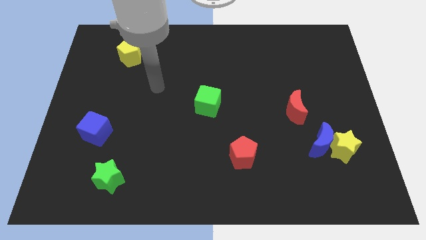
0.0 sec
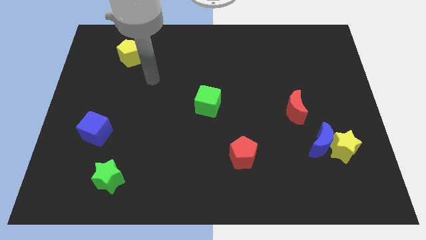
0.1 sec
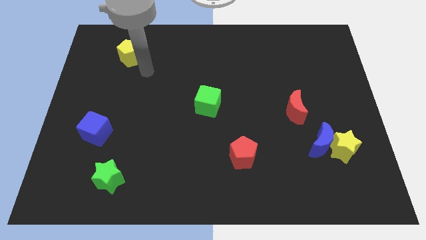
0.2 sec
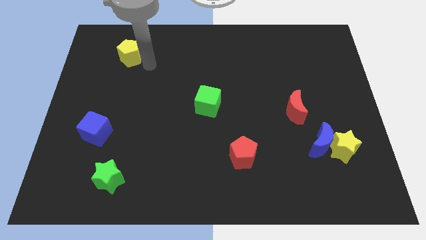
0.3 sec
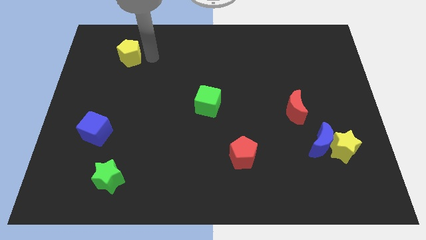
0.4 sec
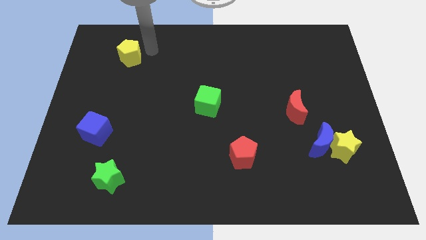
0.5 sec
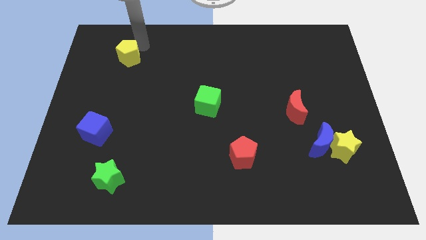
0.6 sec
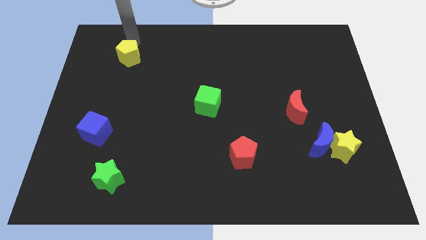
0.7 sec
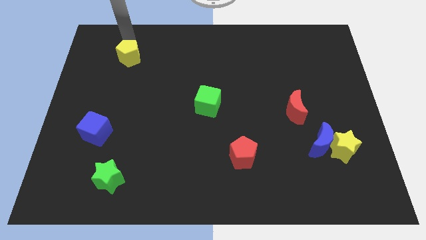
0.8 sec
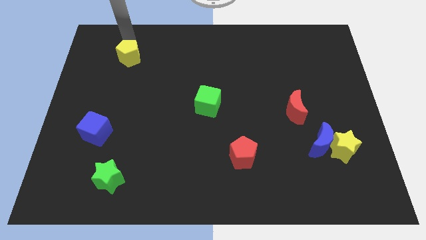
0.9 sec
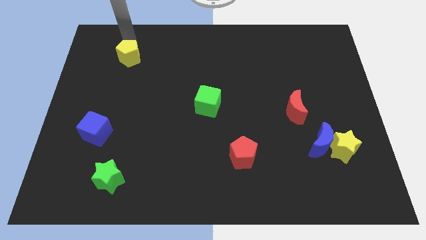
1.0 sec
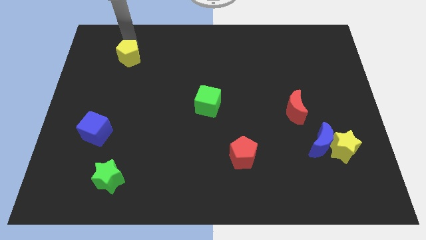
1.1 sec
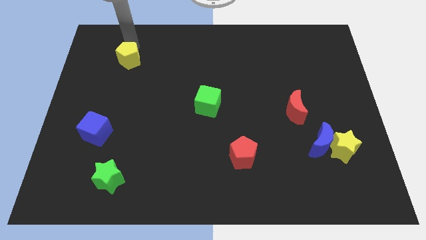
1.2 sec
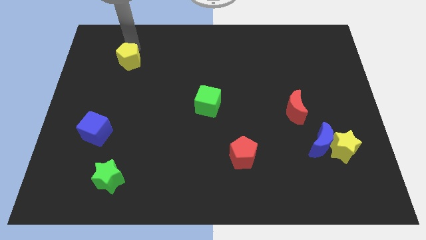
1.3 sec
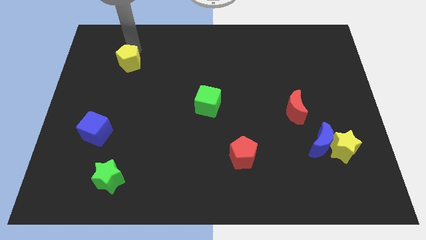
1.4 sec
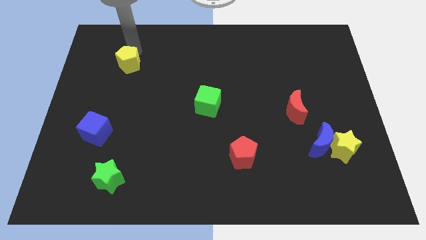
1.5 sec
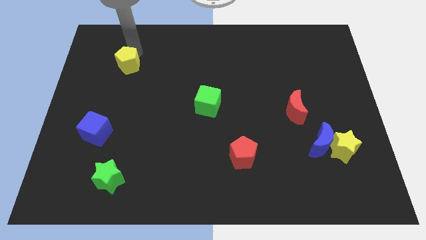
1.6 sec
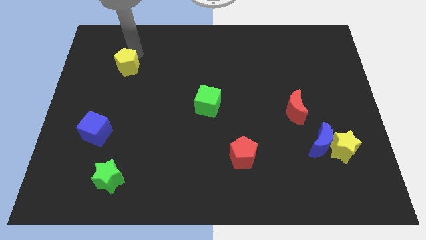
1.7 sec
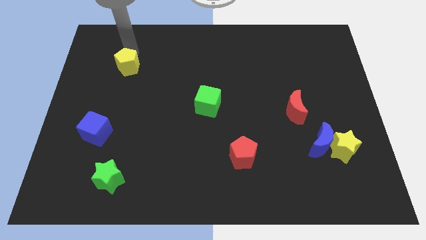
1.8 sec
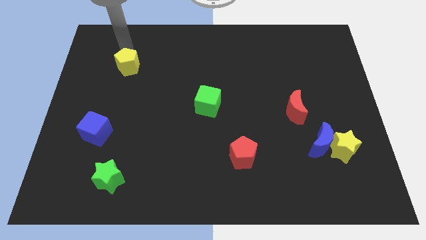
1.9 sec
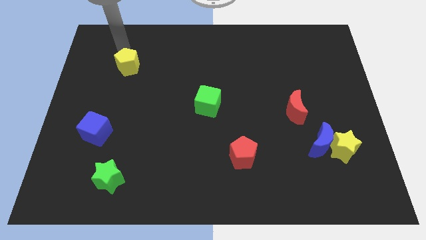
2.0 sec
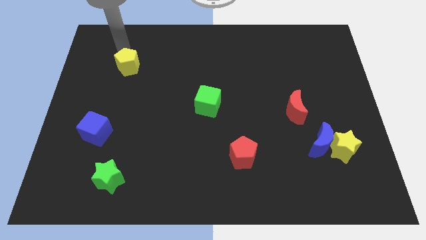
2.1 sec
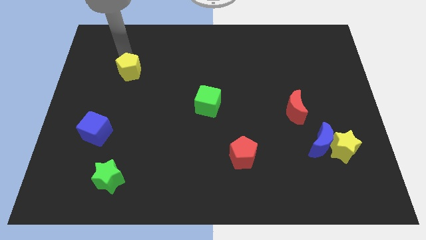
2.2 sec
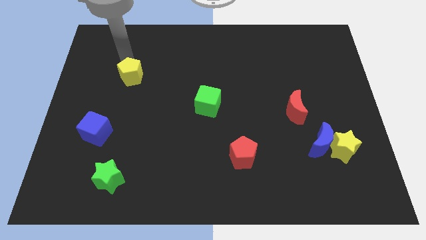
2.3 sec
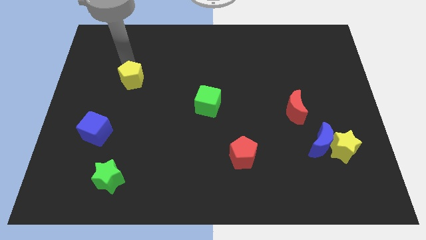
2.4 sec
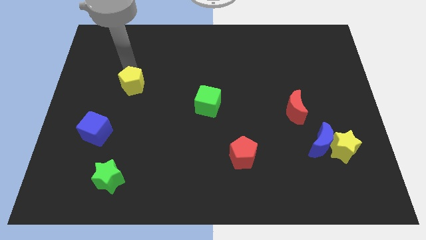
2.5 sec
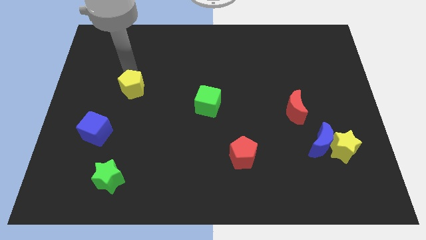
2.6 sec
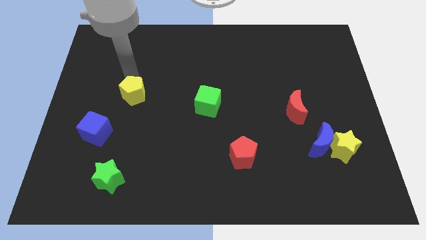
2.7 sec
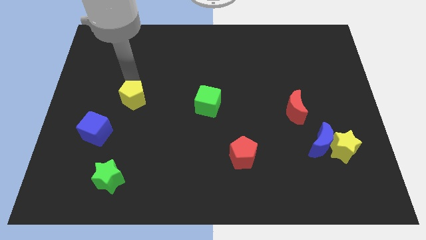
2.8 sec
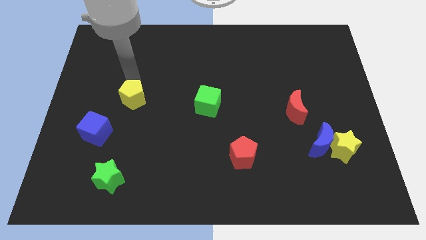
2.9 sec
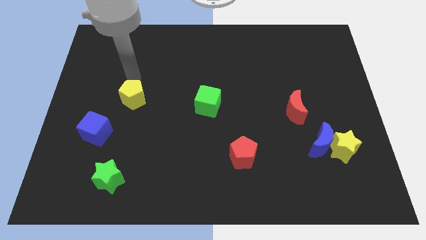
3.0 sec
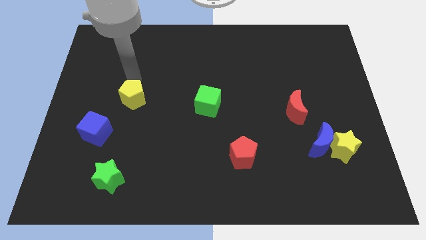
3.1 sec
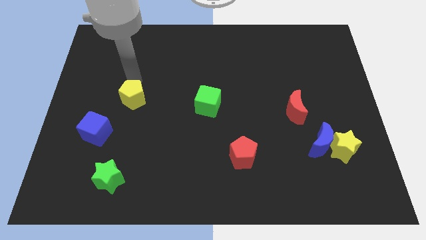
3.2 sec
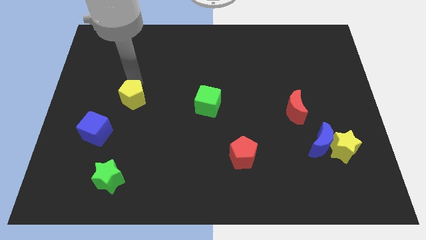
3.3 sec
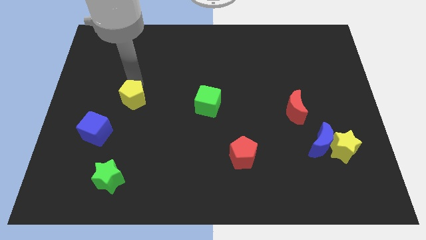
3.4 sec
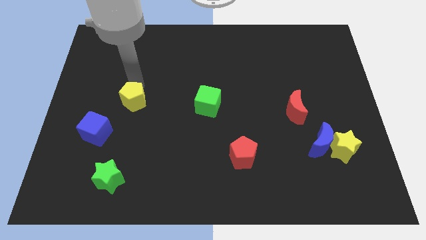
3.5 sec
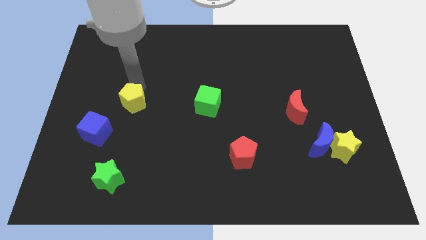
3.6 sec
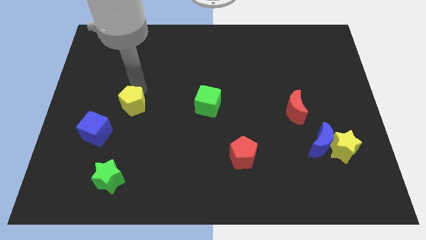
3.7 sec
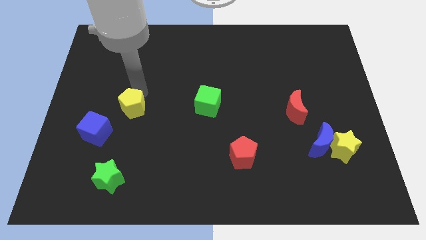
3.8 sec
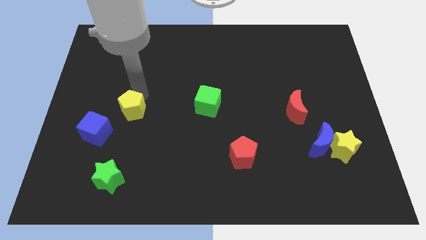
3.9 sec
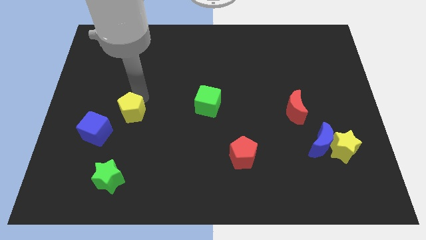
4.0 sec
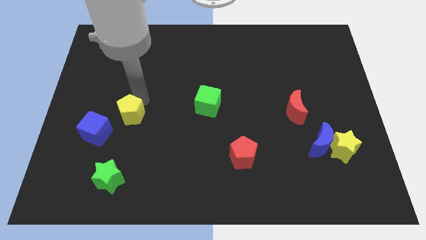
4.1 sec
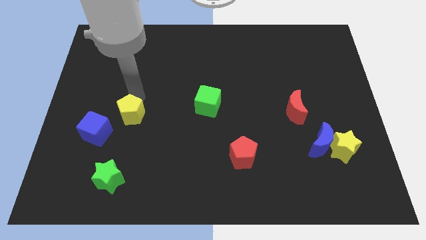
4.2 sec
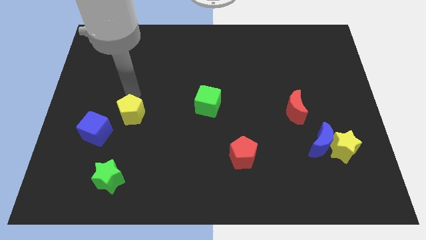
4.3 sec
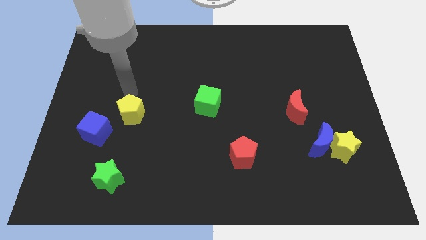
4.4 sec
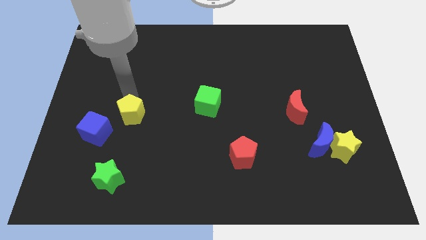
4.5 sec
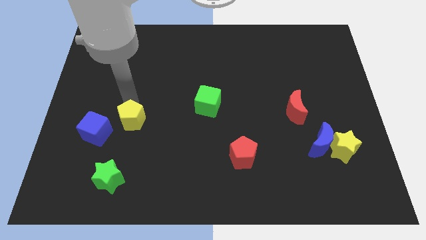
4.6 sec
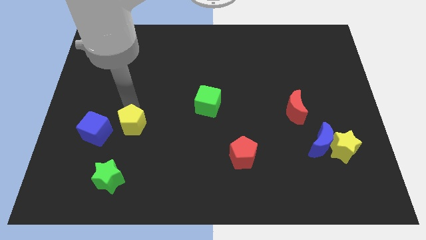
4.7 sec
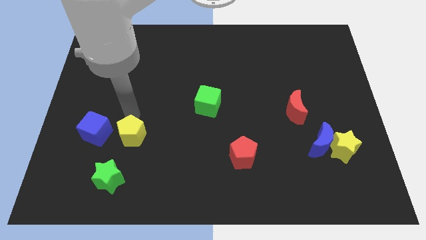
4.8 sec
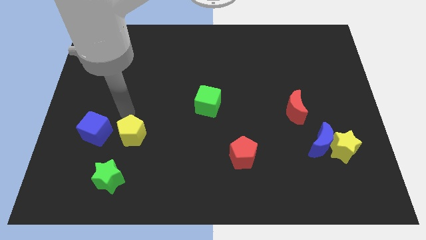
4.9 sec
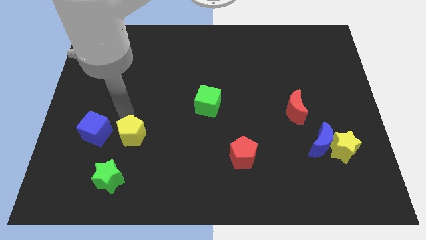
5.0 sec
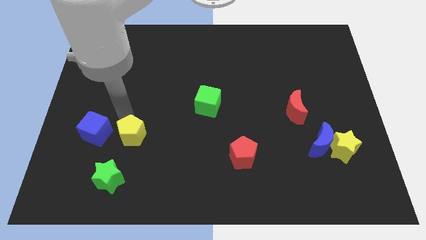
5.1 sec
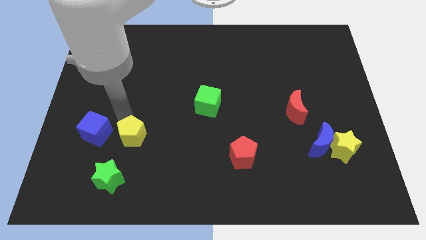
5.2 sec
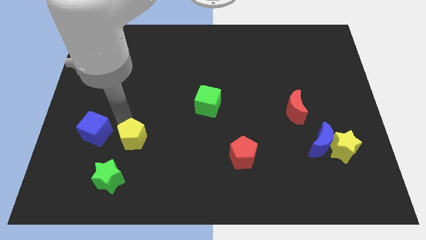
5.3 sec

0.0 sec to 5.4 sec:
slide the yellow pentagon to the top right side of the green star
